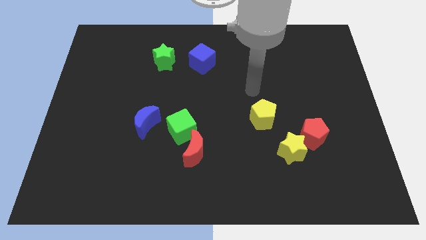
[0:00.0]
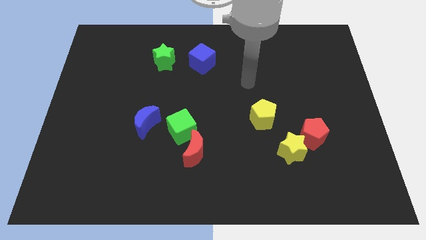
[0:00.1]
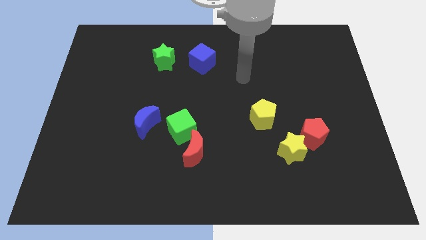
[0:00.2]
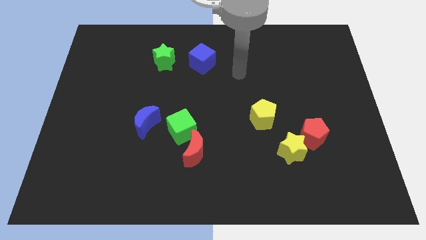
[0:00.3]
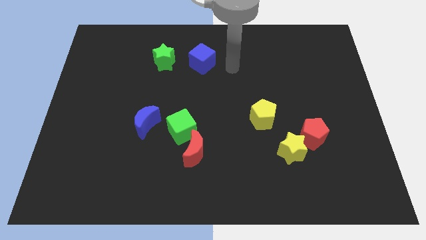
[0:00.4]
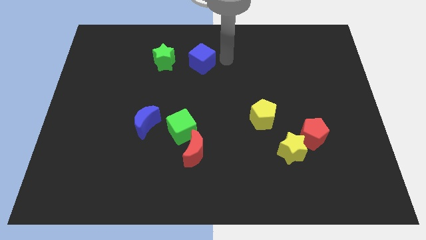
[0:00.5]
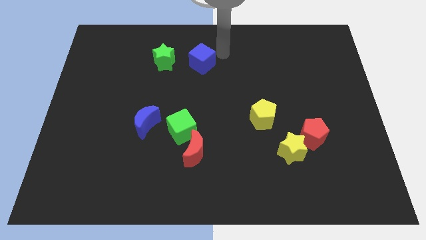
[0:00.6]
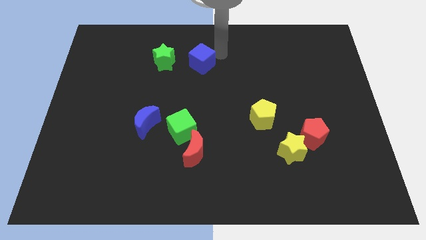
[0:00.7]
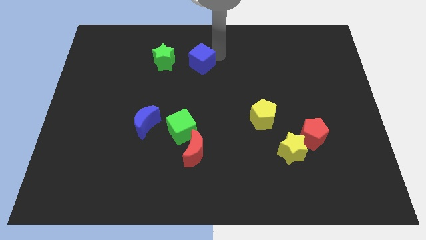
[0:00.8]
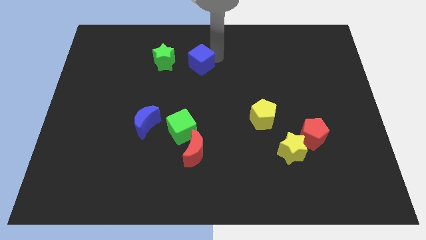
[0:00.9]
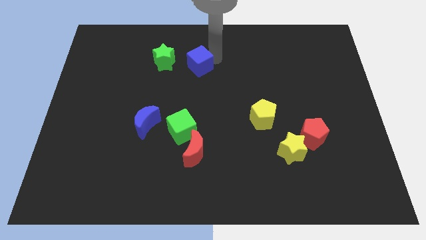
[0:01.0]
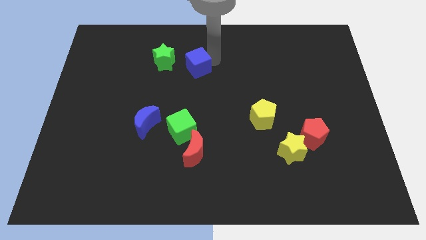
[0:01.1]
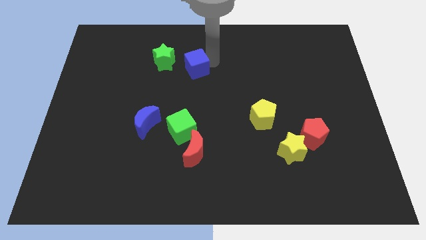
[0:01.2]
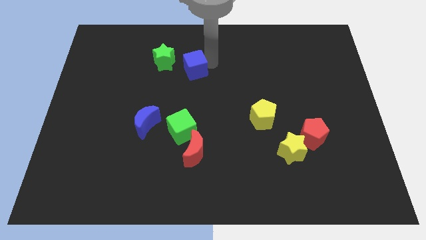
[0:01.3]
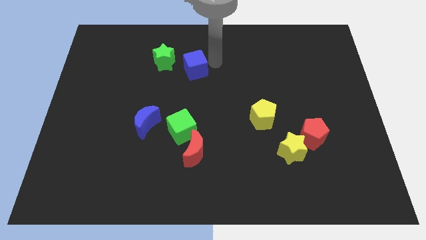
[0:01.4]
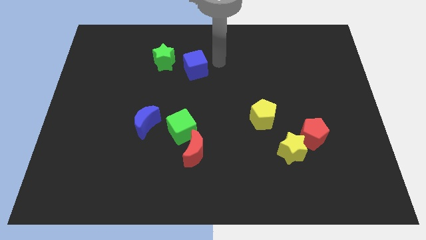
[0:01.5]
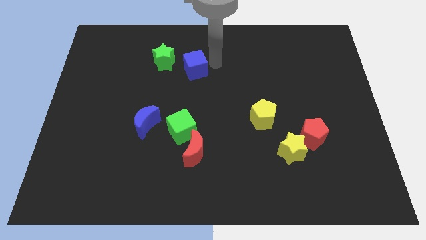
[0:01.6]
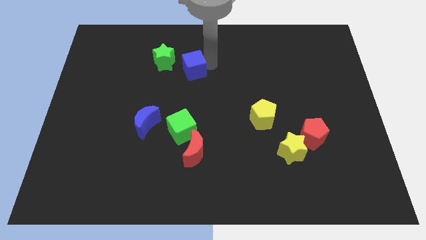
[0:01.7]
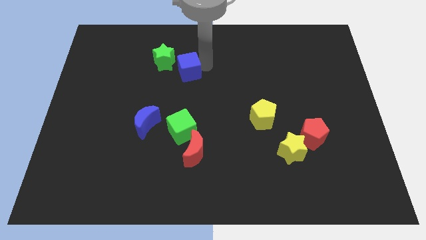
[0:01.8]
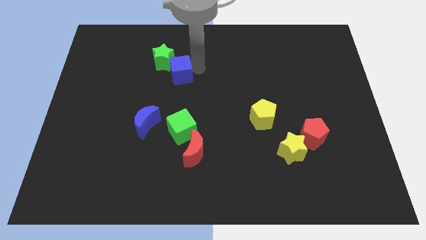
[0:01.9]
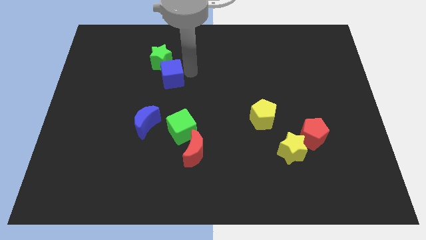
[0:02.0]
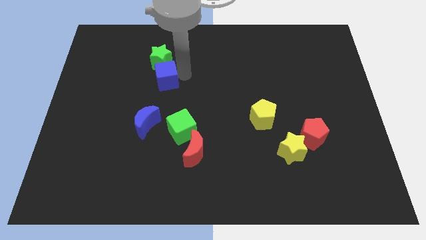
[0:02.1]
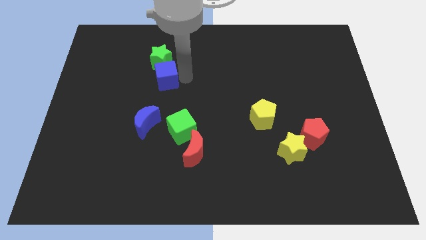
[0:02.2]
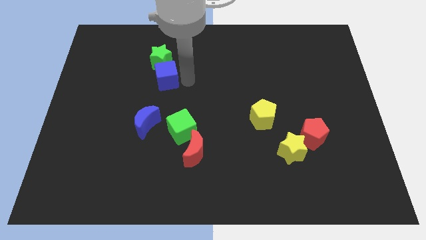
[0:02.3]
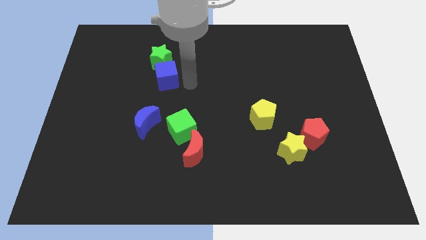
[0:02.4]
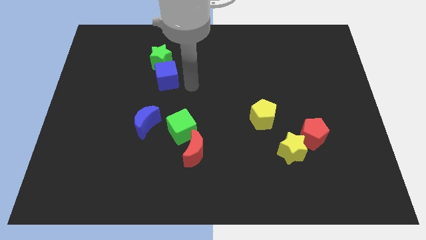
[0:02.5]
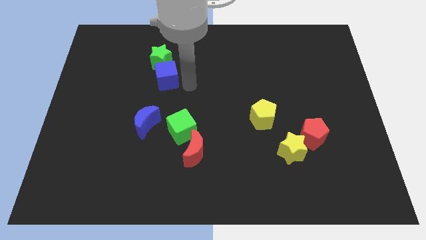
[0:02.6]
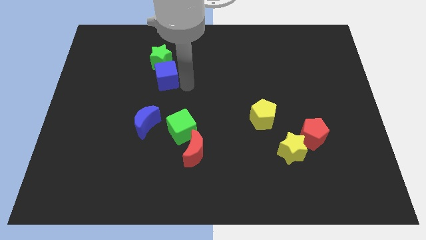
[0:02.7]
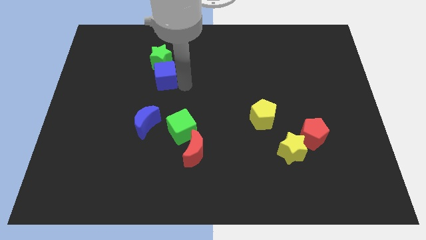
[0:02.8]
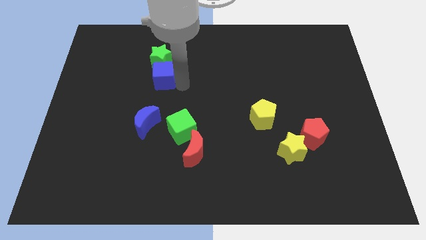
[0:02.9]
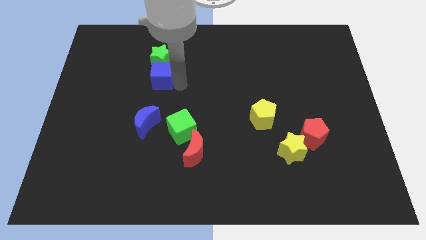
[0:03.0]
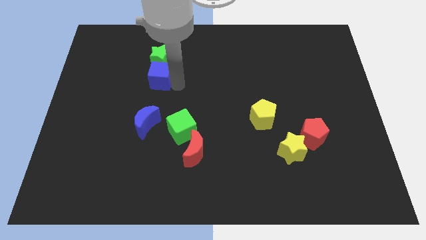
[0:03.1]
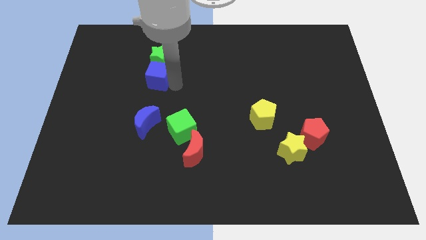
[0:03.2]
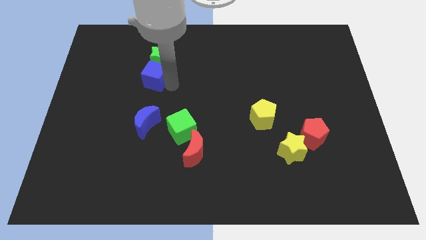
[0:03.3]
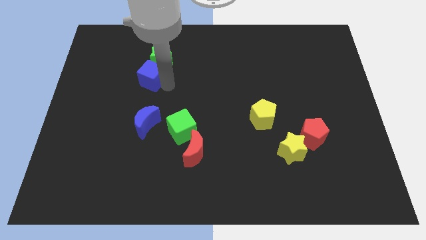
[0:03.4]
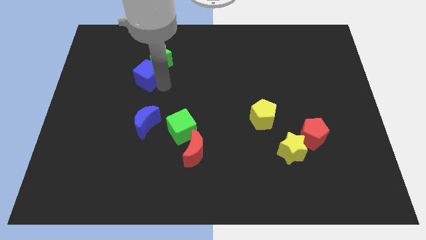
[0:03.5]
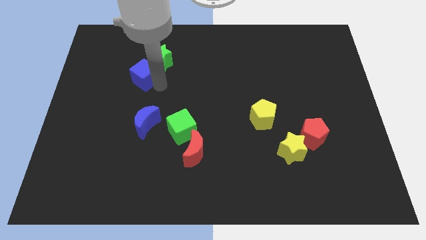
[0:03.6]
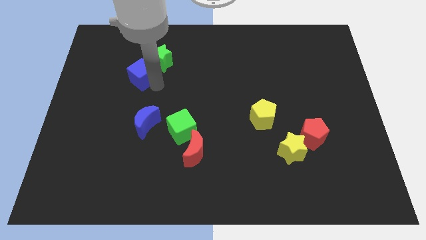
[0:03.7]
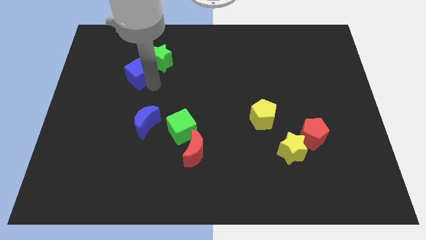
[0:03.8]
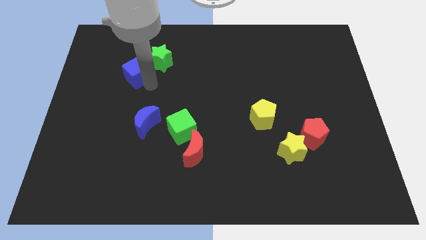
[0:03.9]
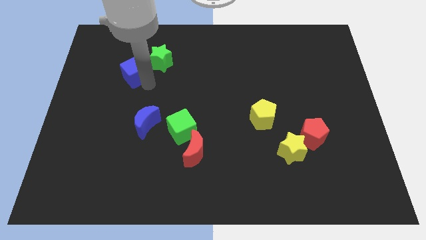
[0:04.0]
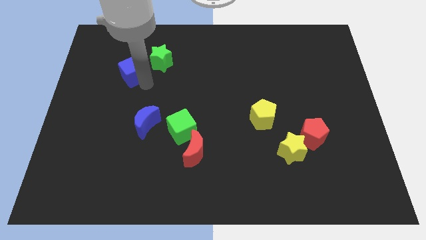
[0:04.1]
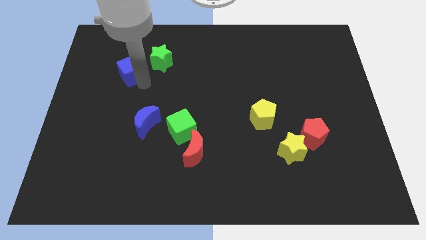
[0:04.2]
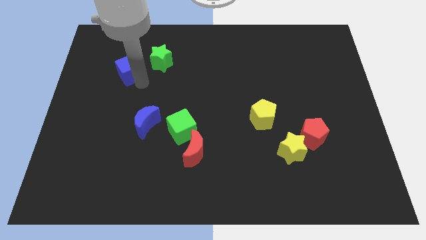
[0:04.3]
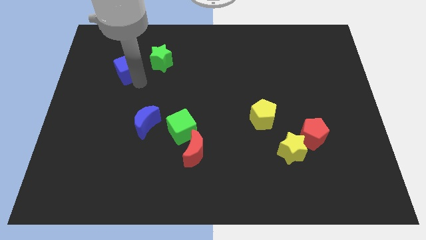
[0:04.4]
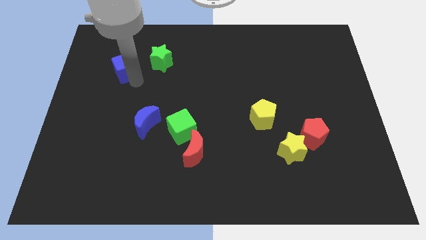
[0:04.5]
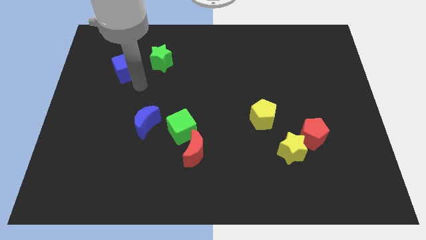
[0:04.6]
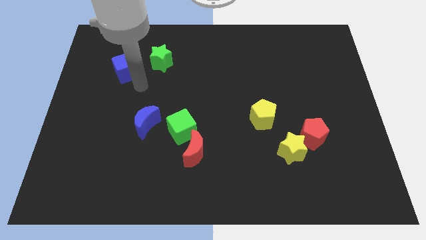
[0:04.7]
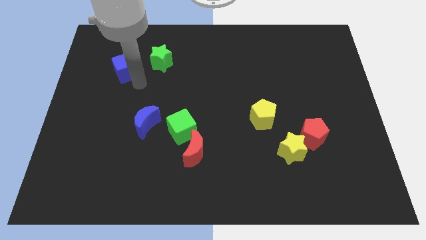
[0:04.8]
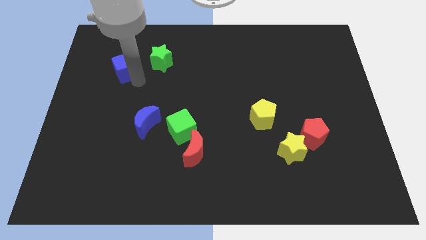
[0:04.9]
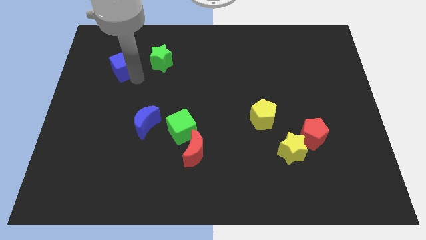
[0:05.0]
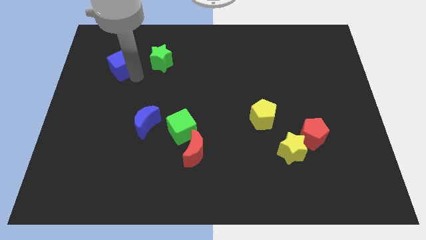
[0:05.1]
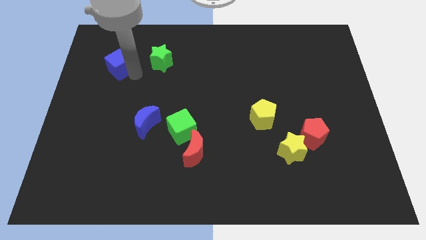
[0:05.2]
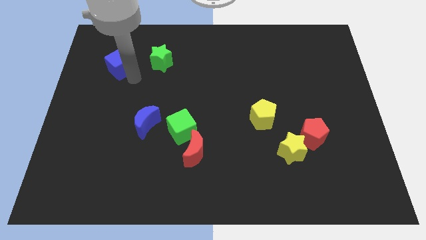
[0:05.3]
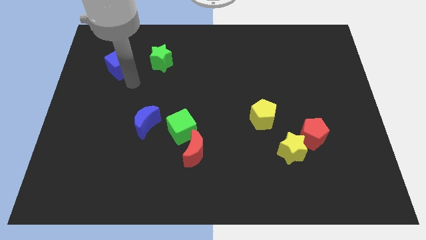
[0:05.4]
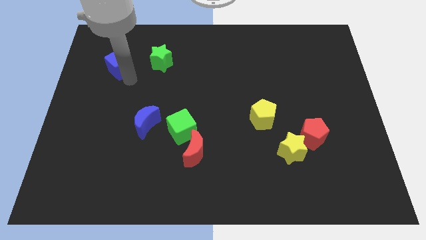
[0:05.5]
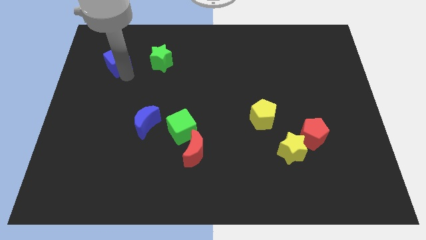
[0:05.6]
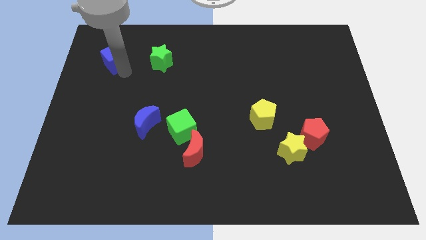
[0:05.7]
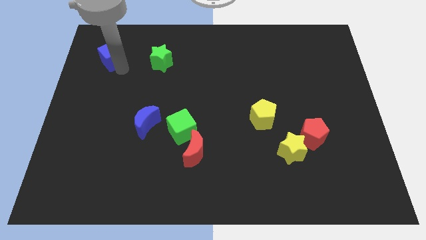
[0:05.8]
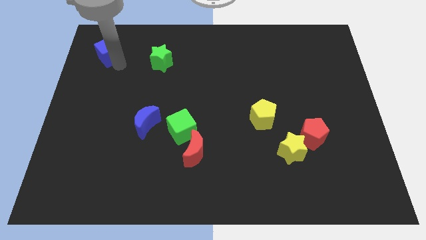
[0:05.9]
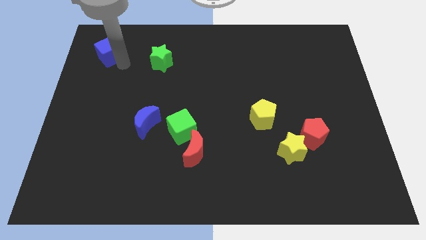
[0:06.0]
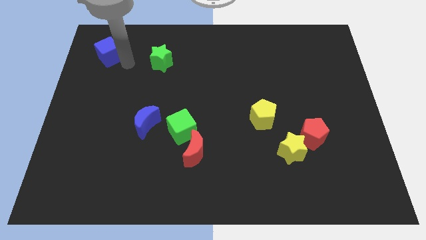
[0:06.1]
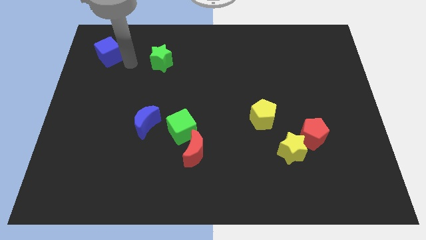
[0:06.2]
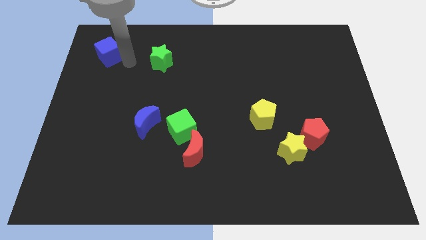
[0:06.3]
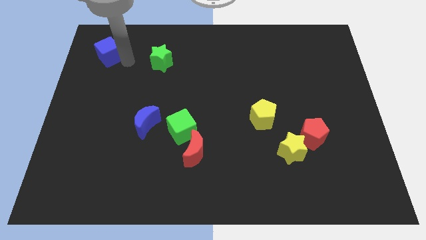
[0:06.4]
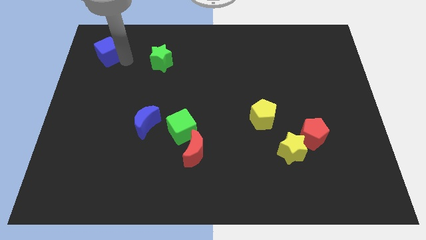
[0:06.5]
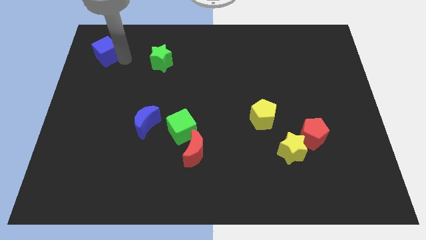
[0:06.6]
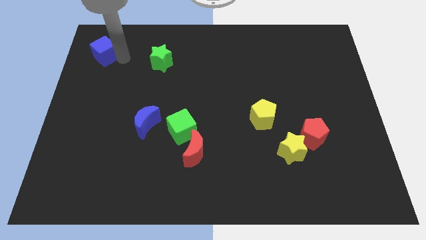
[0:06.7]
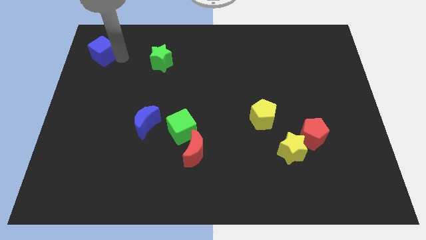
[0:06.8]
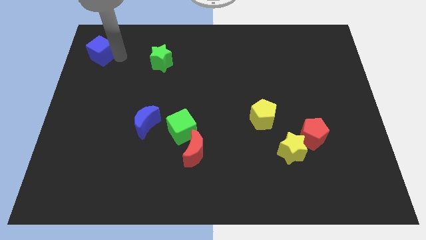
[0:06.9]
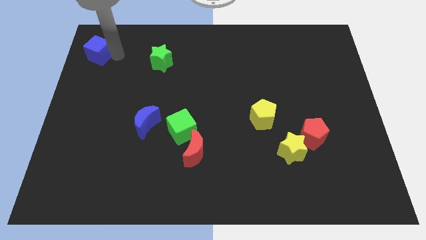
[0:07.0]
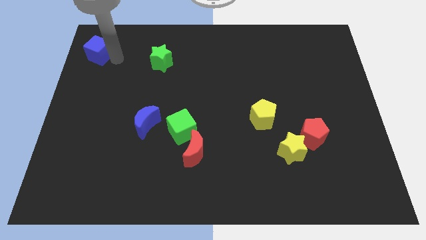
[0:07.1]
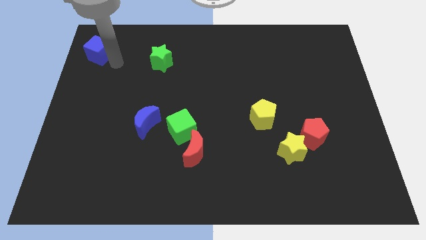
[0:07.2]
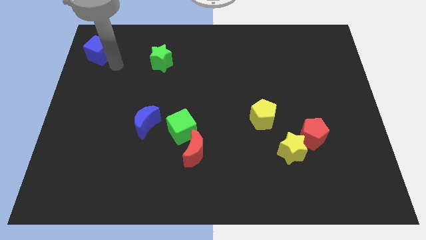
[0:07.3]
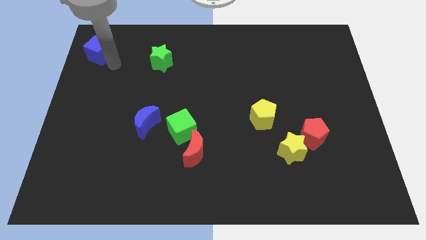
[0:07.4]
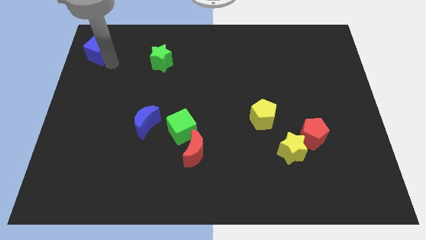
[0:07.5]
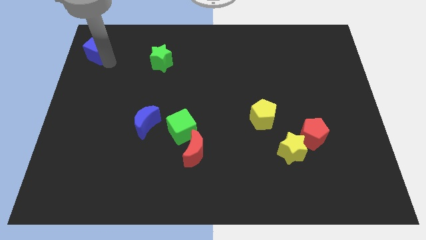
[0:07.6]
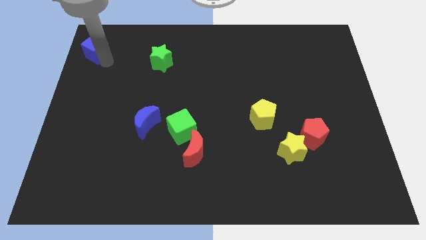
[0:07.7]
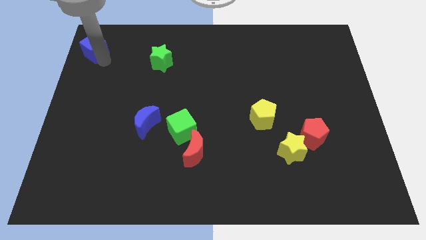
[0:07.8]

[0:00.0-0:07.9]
put the blue cube to the upper left corner
